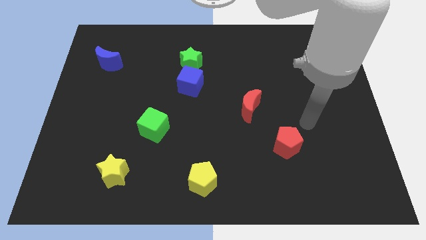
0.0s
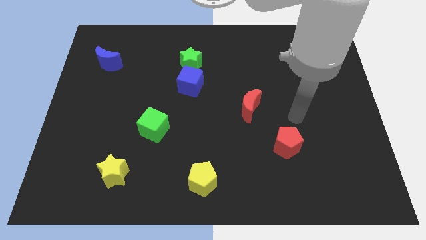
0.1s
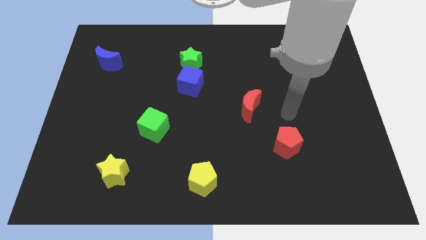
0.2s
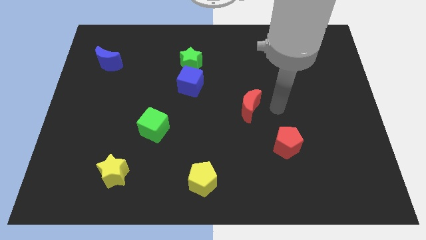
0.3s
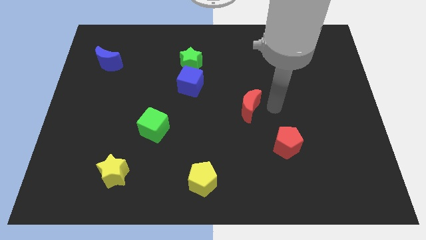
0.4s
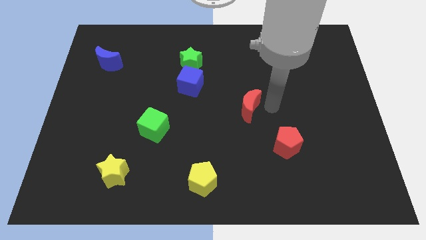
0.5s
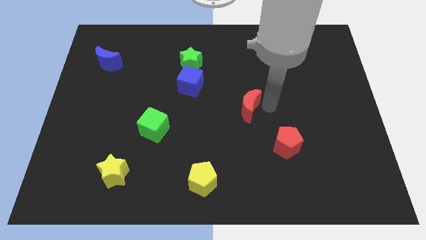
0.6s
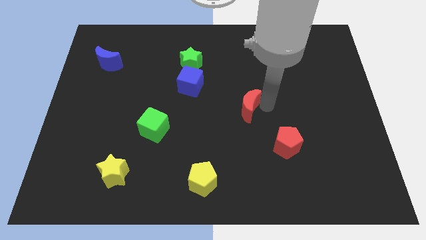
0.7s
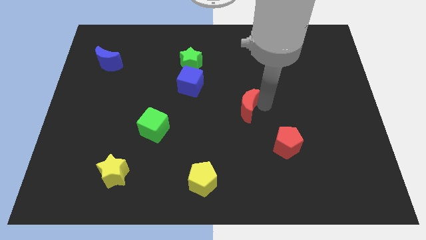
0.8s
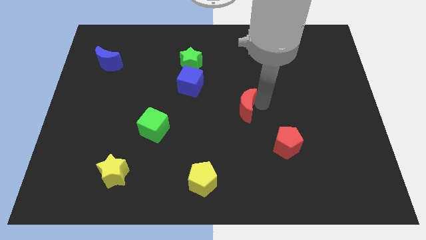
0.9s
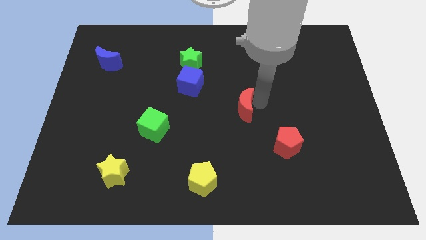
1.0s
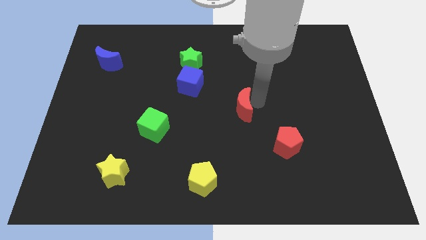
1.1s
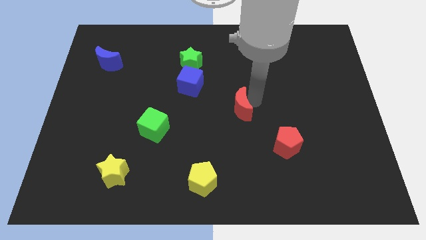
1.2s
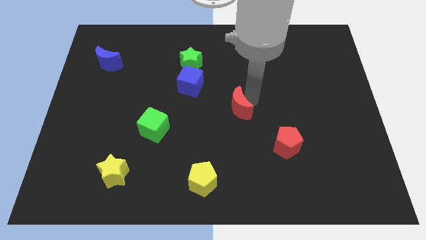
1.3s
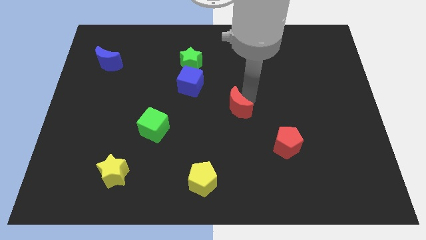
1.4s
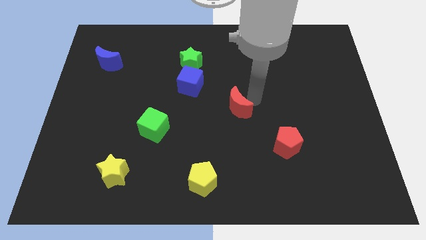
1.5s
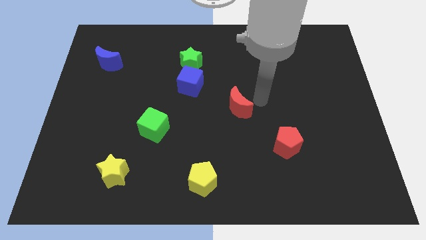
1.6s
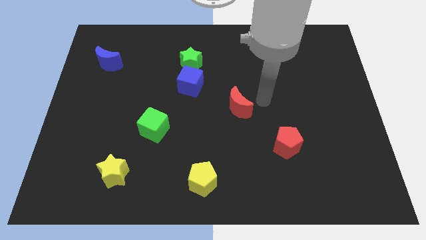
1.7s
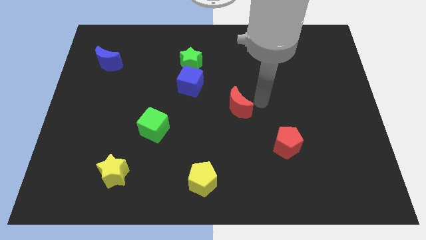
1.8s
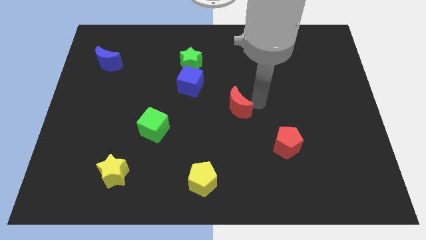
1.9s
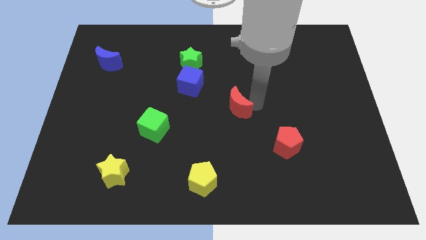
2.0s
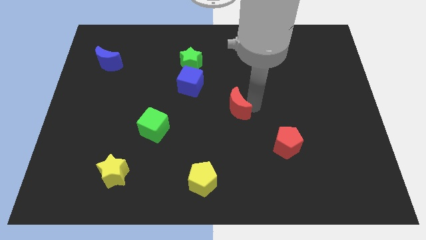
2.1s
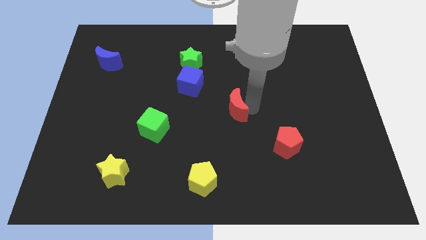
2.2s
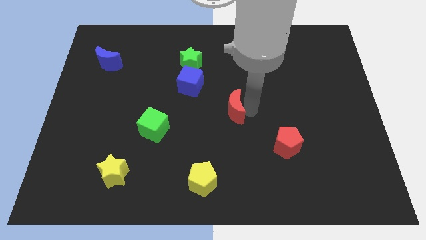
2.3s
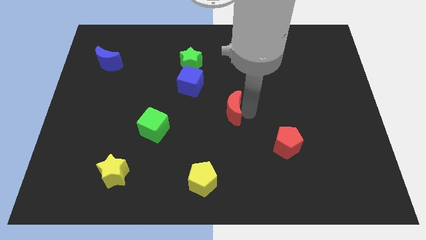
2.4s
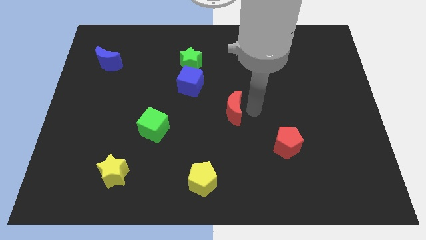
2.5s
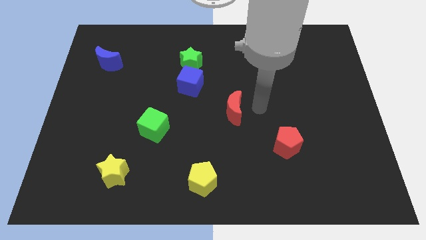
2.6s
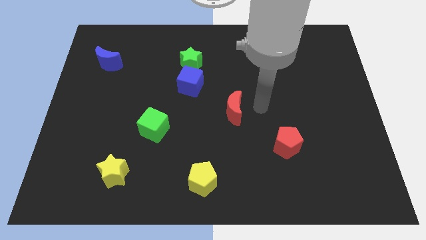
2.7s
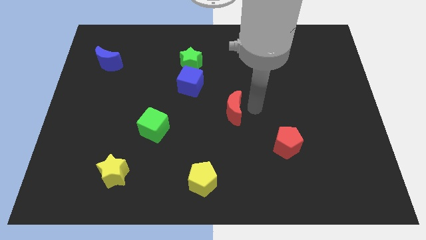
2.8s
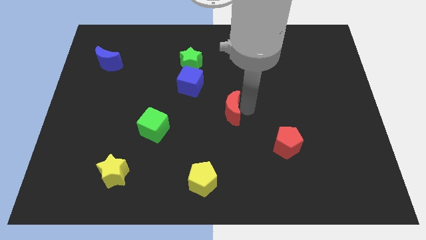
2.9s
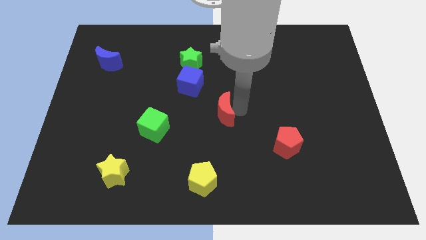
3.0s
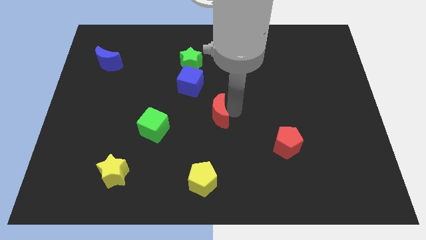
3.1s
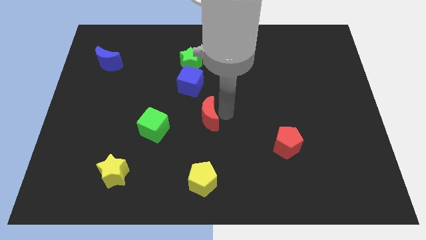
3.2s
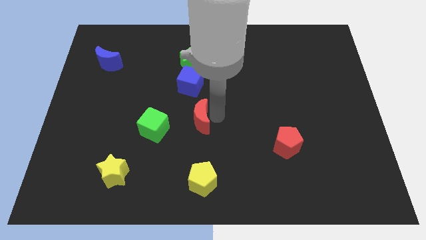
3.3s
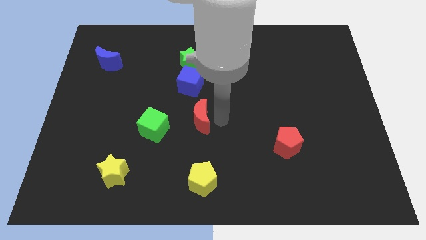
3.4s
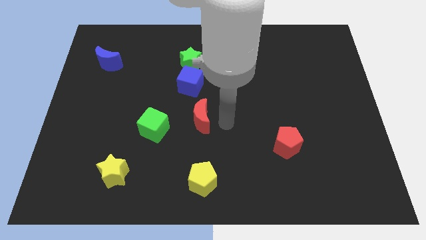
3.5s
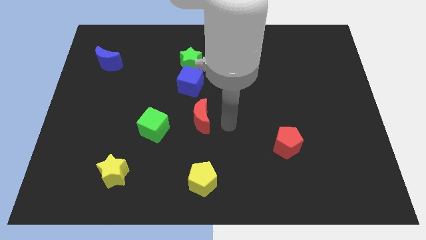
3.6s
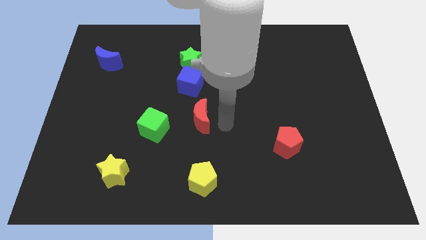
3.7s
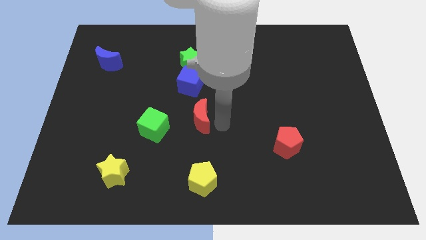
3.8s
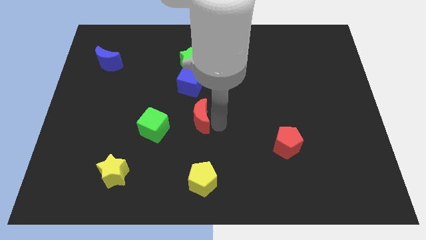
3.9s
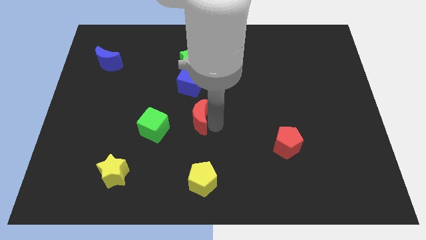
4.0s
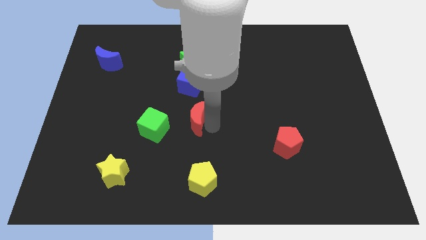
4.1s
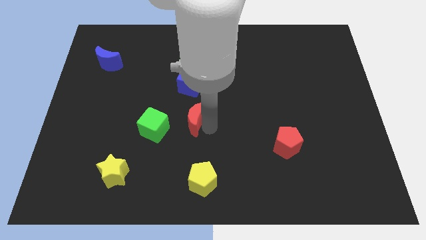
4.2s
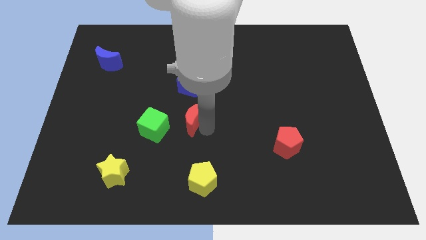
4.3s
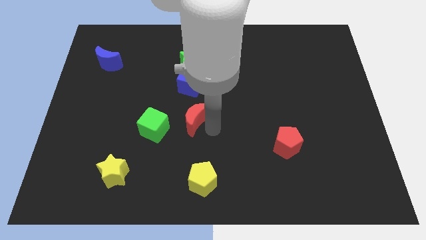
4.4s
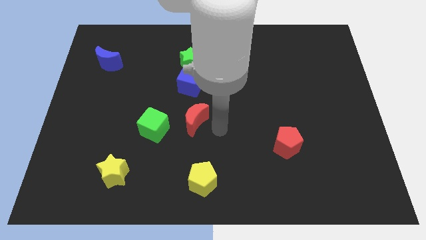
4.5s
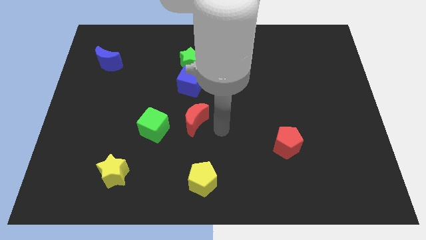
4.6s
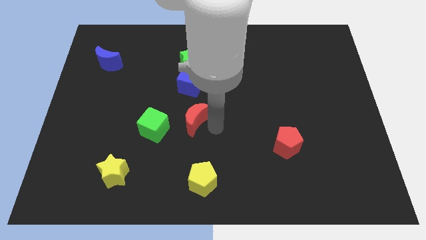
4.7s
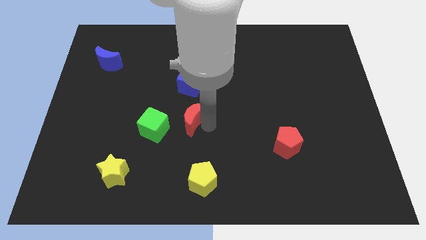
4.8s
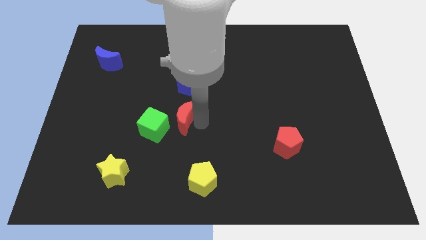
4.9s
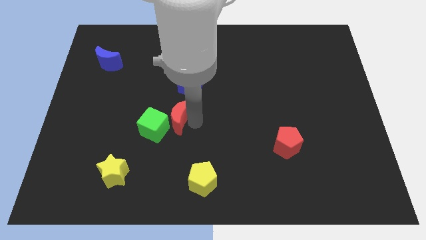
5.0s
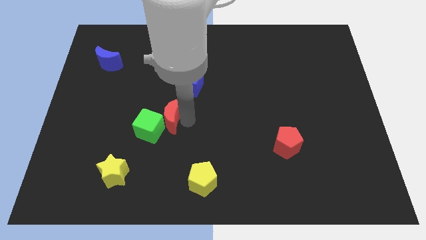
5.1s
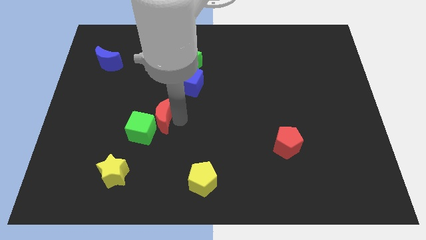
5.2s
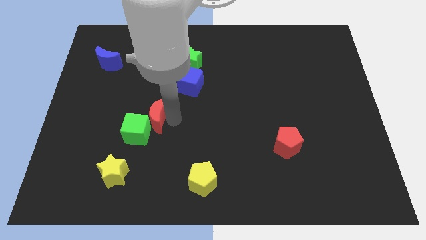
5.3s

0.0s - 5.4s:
push the red moon to the left

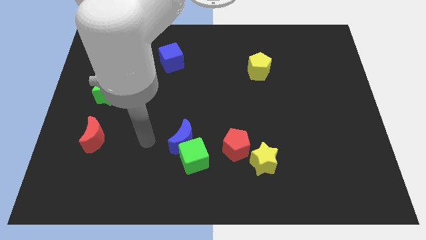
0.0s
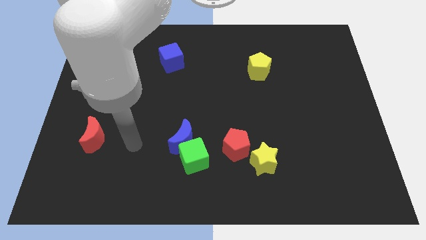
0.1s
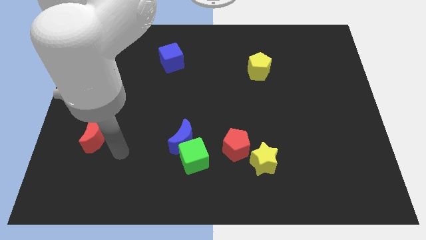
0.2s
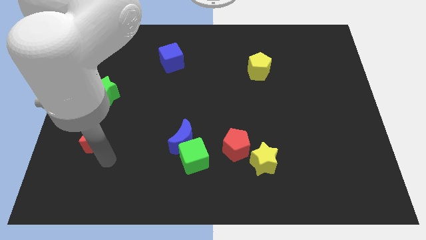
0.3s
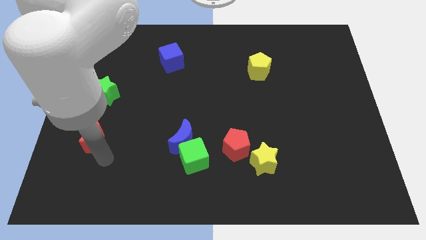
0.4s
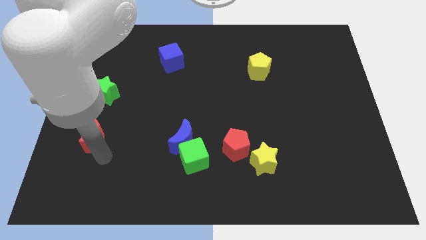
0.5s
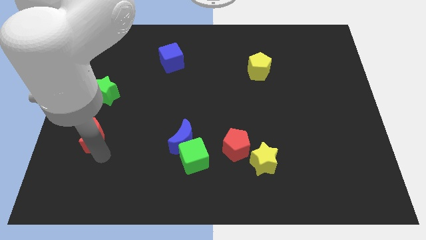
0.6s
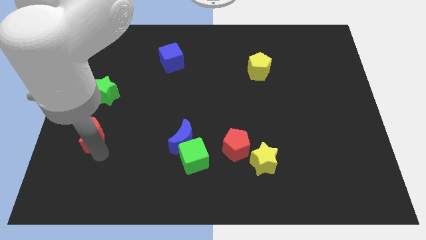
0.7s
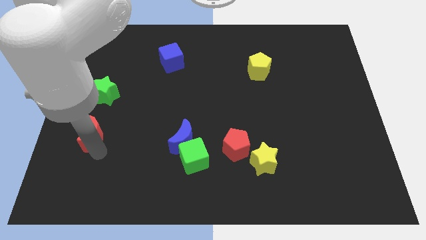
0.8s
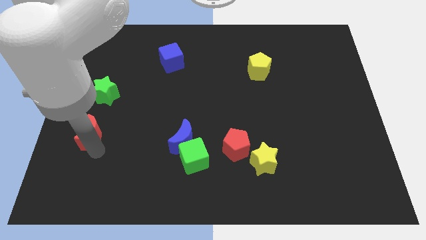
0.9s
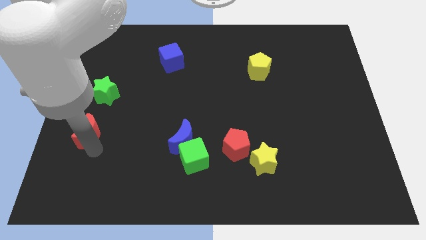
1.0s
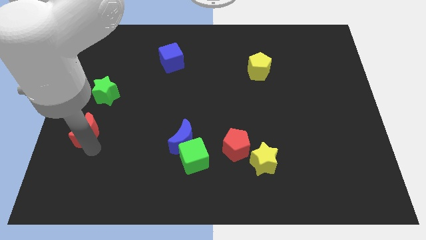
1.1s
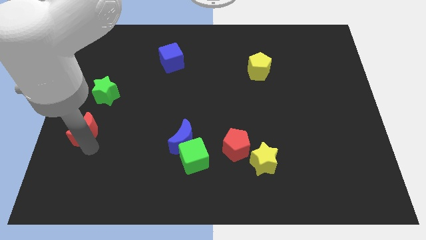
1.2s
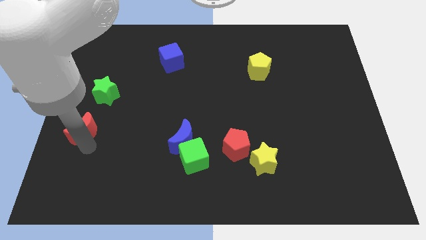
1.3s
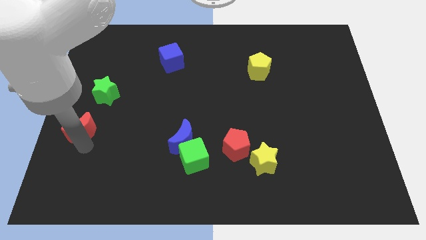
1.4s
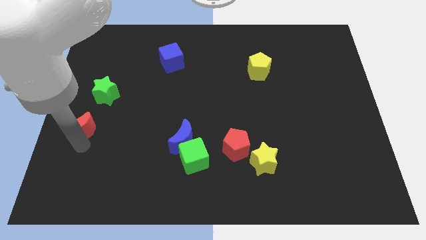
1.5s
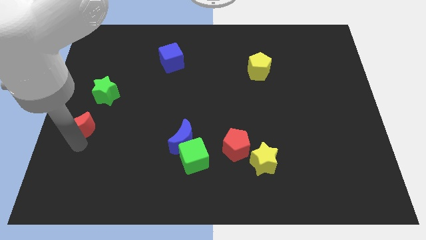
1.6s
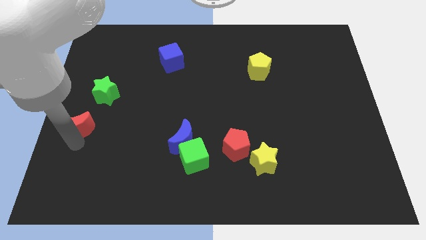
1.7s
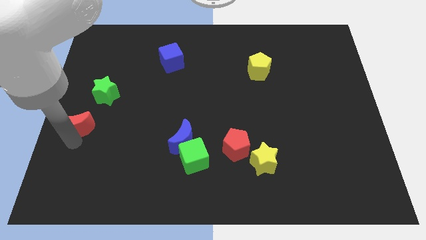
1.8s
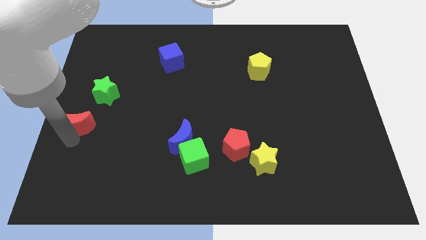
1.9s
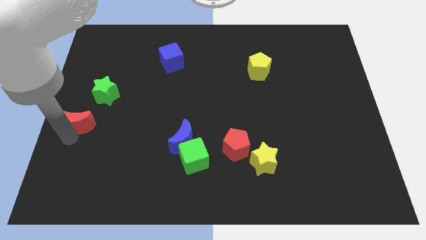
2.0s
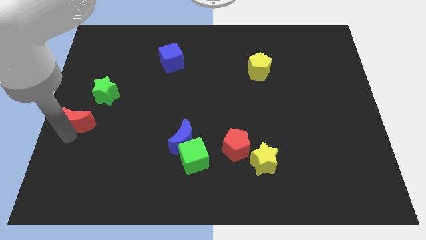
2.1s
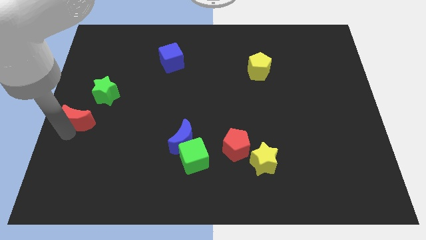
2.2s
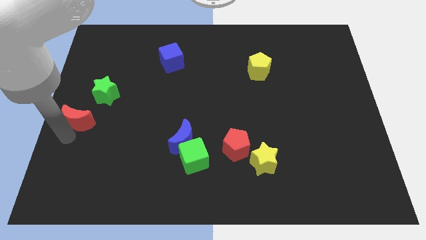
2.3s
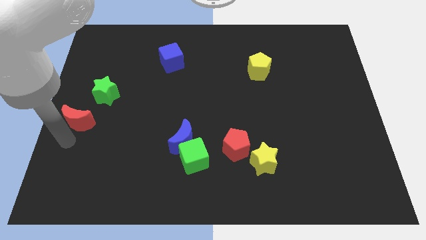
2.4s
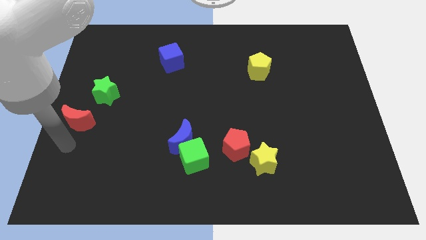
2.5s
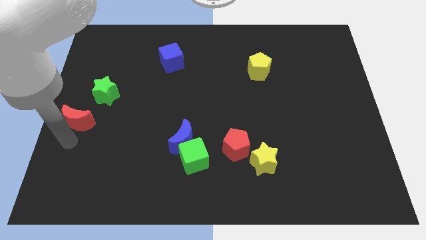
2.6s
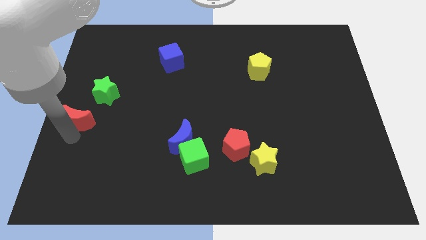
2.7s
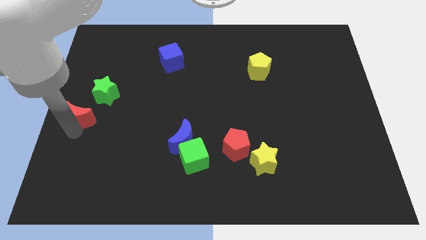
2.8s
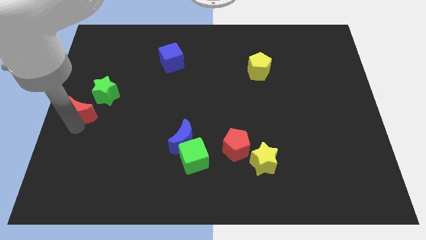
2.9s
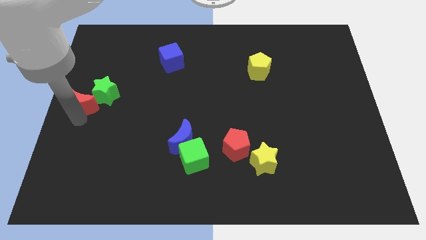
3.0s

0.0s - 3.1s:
slightly slide the red moon upwards
